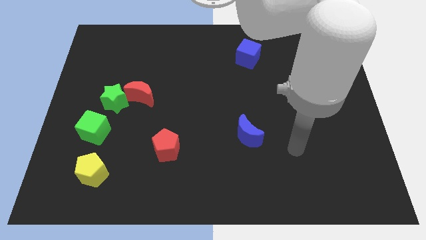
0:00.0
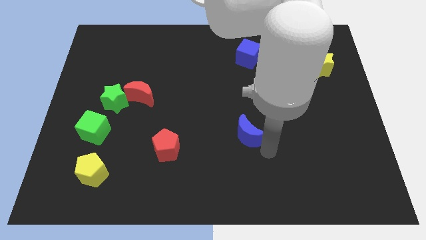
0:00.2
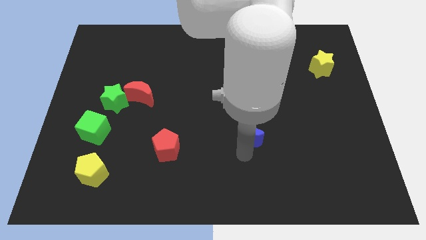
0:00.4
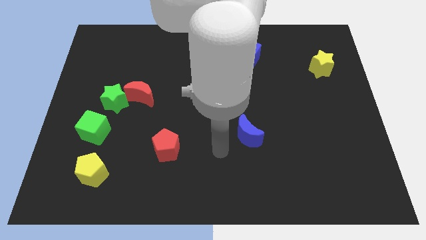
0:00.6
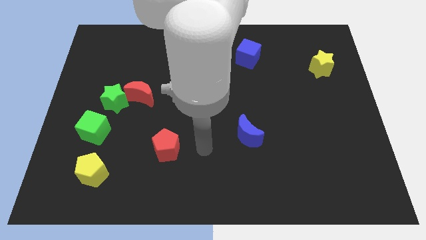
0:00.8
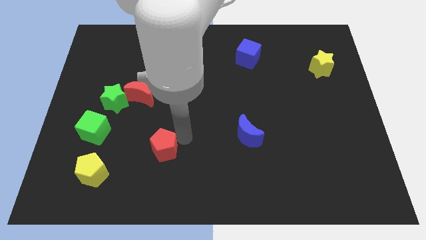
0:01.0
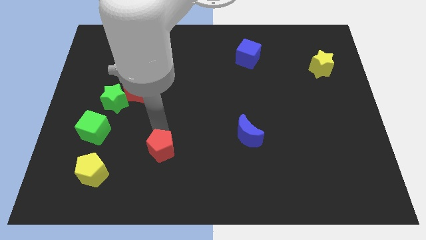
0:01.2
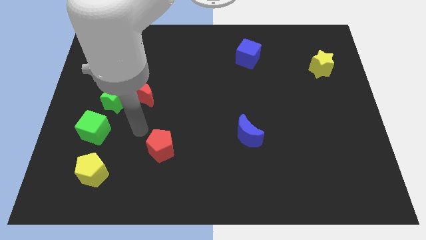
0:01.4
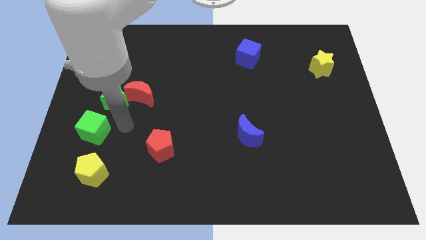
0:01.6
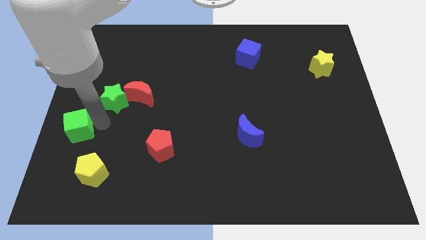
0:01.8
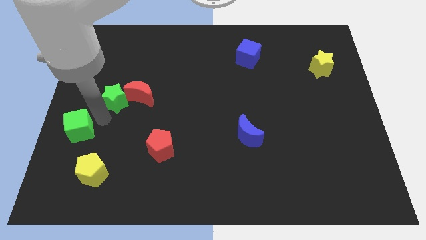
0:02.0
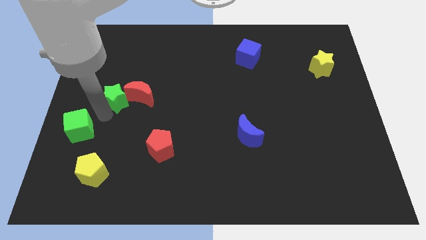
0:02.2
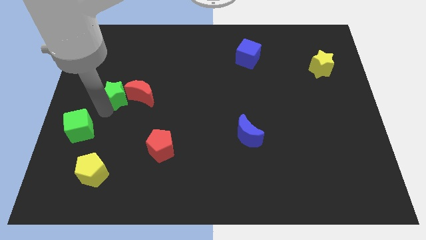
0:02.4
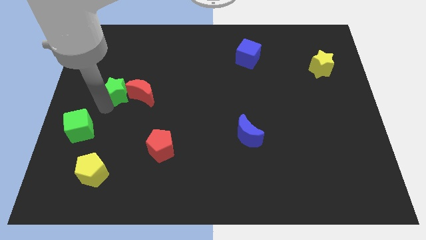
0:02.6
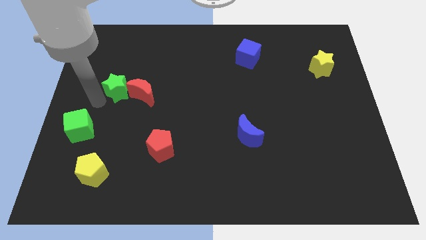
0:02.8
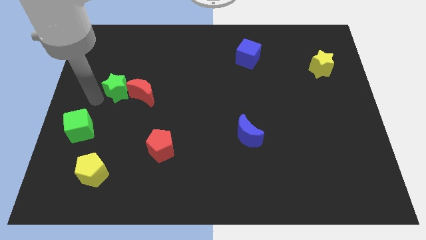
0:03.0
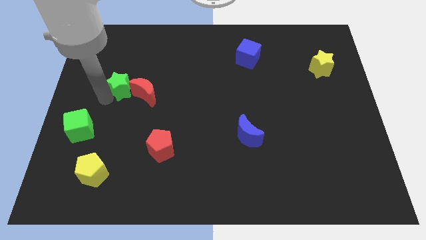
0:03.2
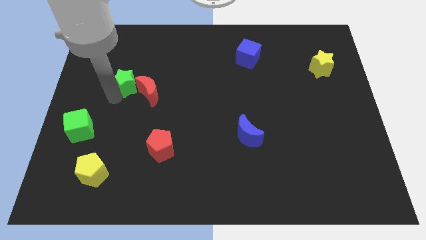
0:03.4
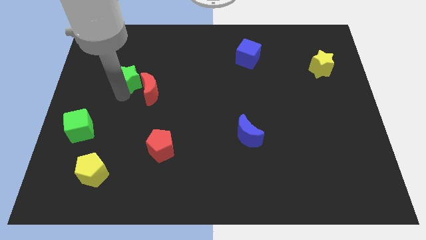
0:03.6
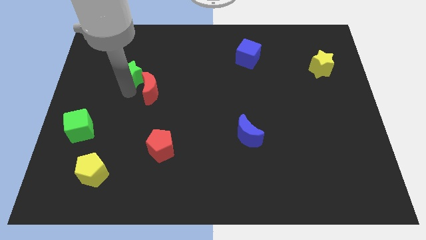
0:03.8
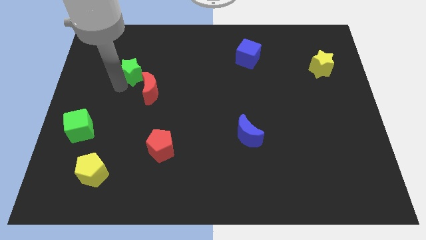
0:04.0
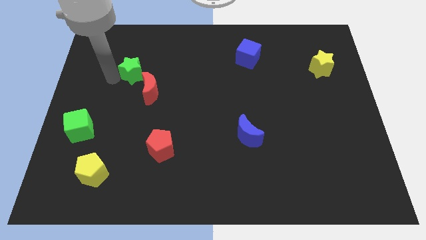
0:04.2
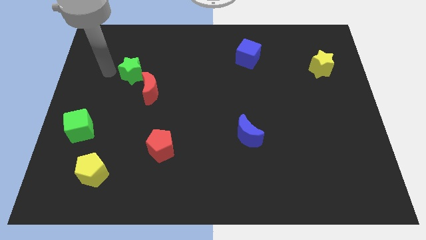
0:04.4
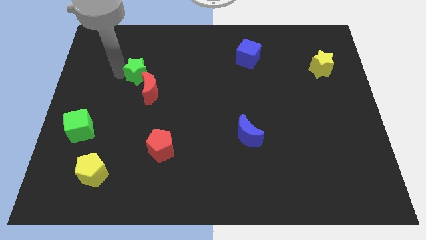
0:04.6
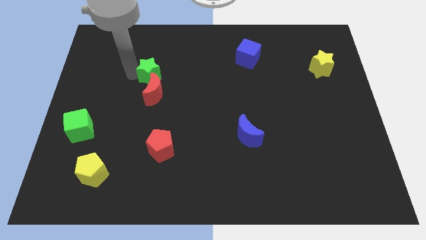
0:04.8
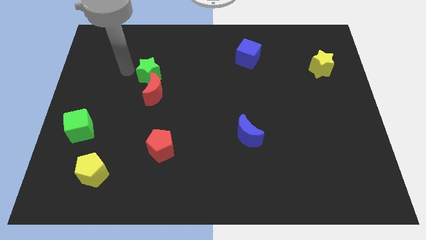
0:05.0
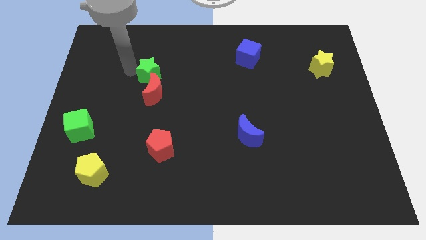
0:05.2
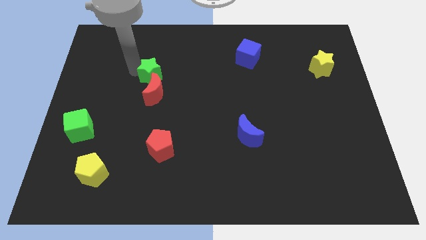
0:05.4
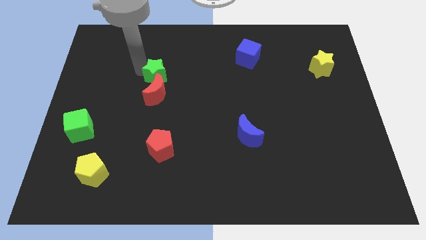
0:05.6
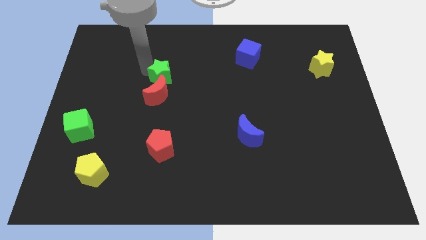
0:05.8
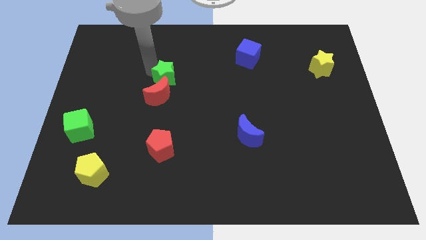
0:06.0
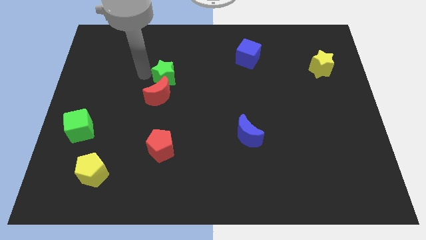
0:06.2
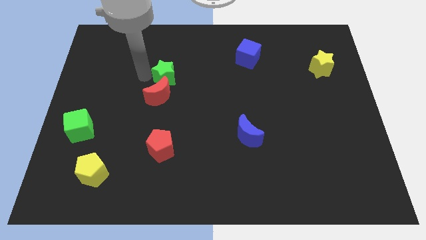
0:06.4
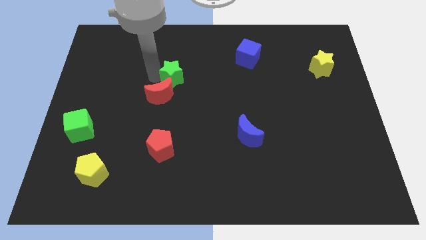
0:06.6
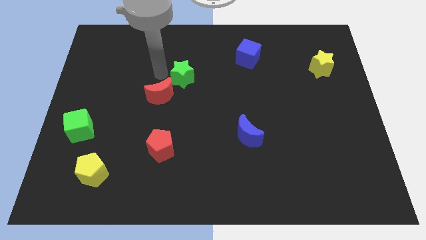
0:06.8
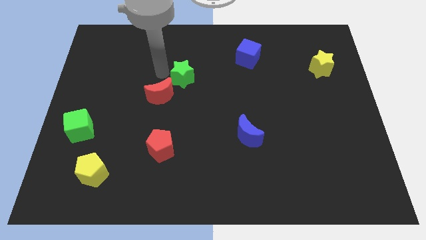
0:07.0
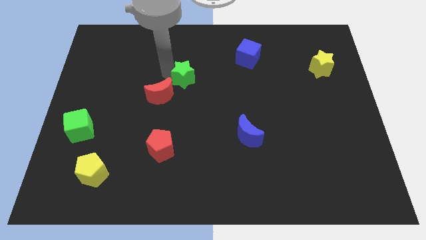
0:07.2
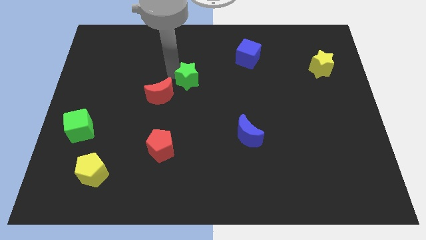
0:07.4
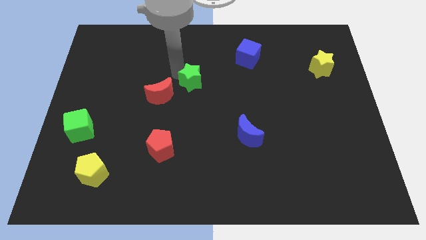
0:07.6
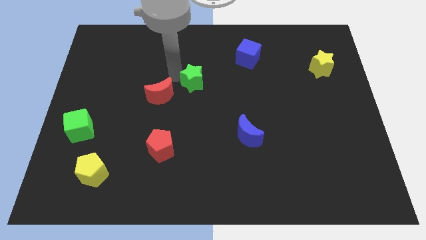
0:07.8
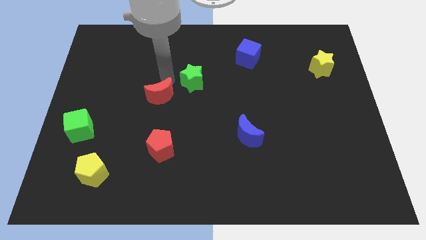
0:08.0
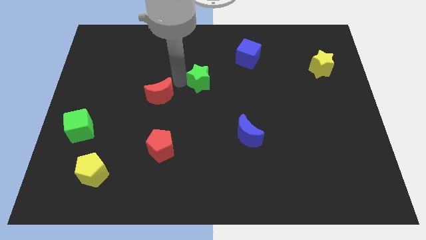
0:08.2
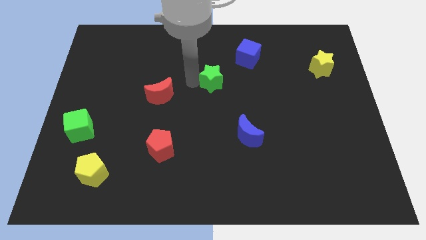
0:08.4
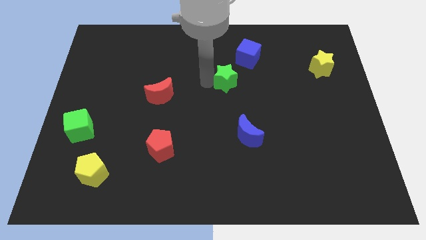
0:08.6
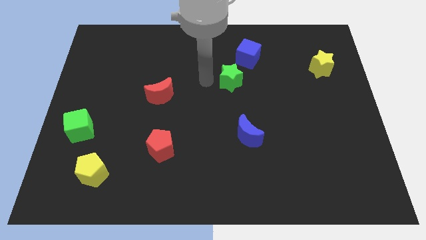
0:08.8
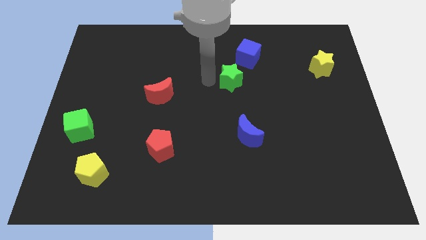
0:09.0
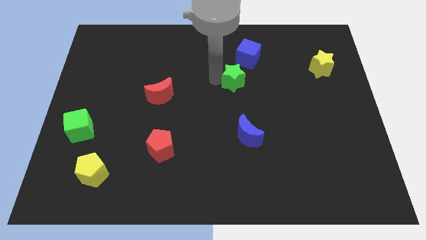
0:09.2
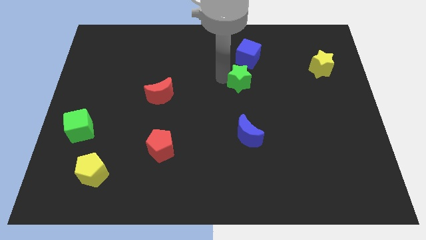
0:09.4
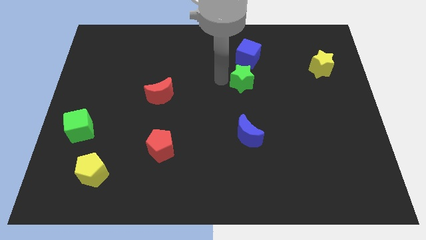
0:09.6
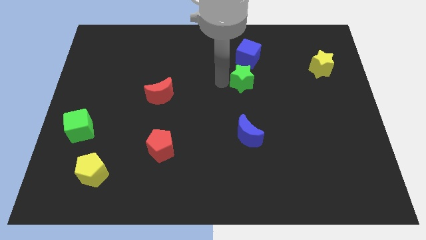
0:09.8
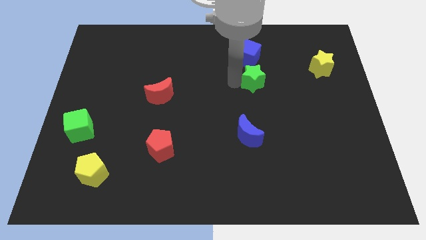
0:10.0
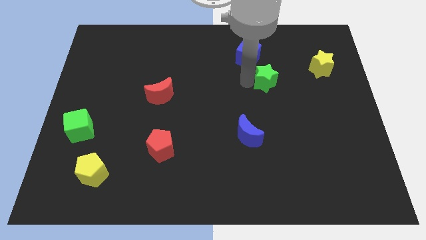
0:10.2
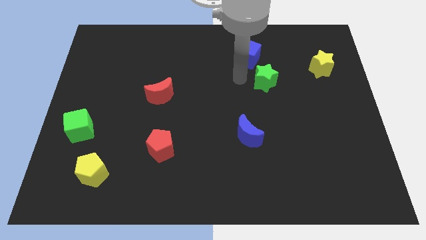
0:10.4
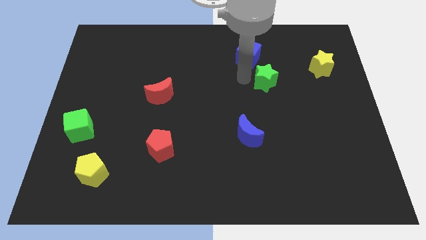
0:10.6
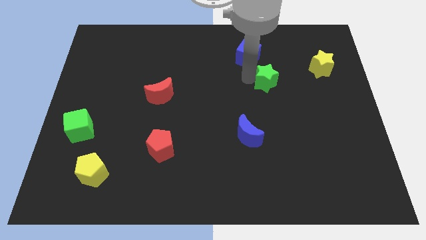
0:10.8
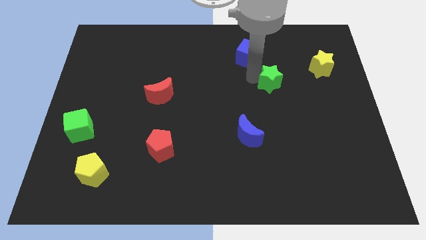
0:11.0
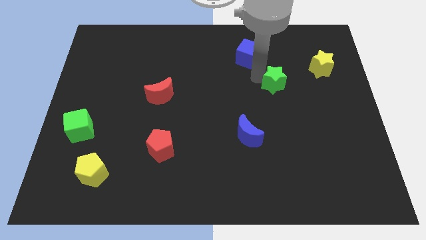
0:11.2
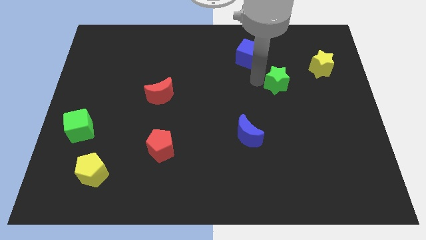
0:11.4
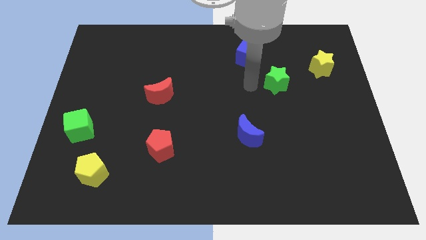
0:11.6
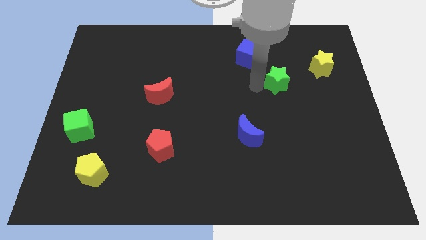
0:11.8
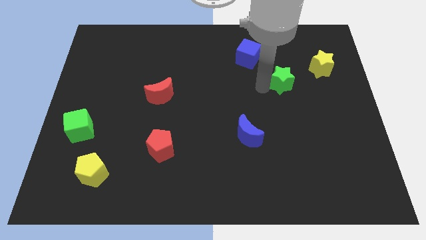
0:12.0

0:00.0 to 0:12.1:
push the green star diagonally down and to the left of the yellow star

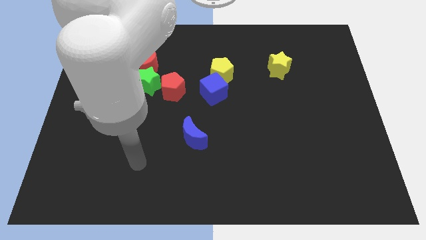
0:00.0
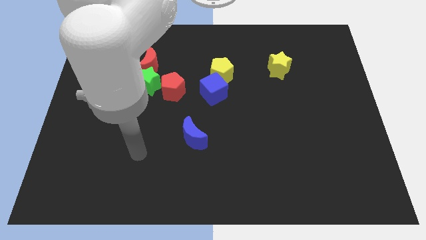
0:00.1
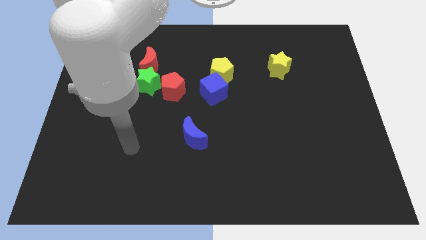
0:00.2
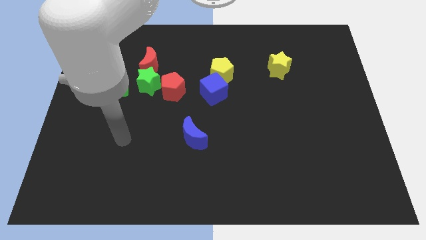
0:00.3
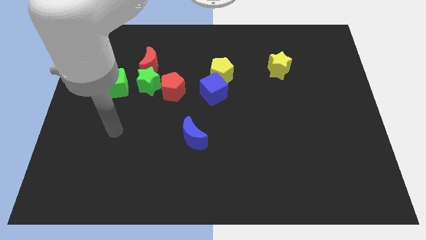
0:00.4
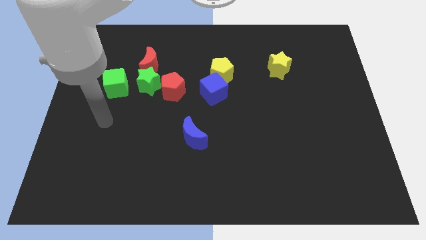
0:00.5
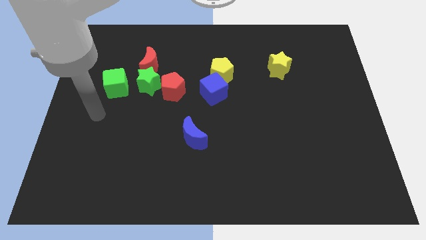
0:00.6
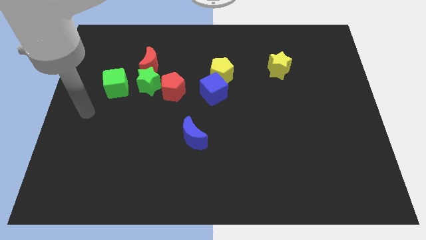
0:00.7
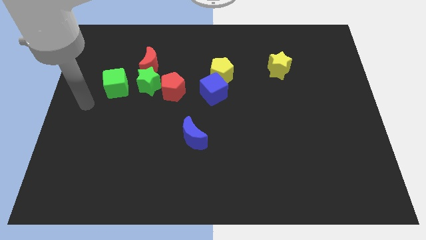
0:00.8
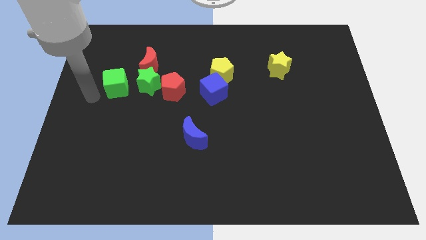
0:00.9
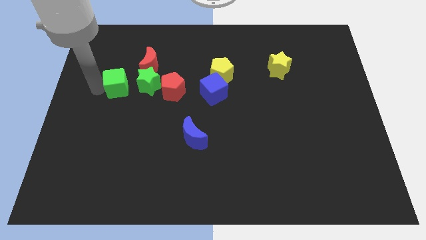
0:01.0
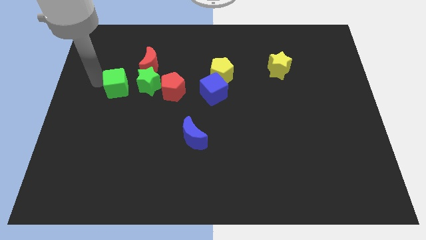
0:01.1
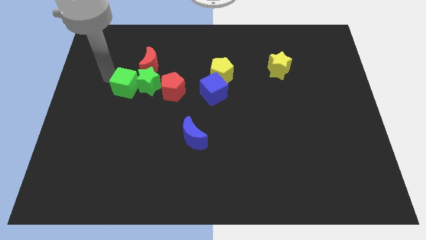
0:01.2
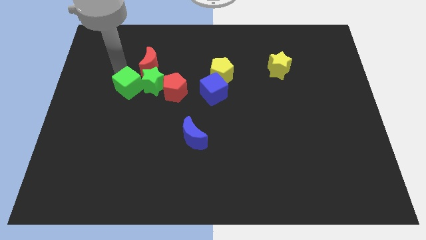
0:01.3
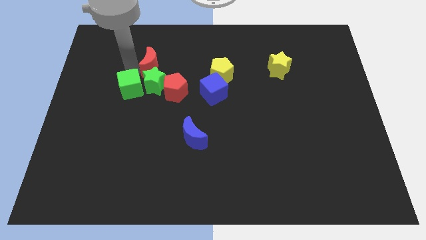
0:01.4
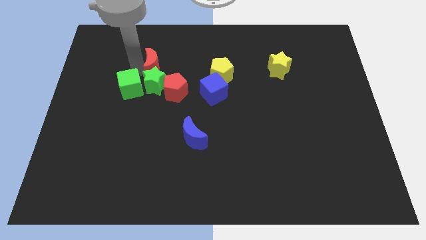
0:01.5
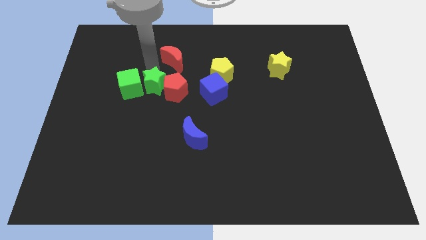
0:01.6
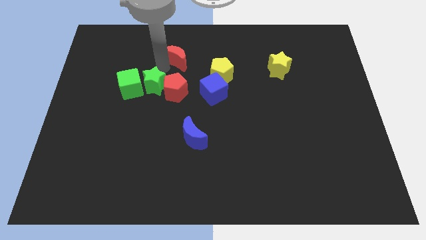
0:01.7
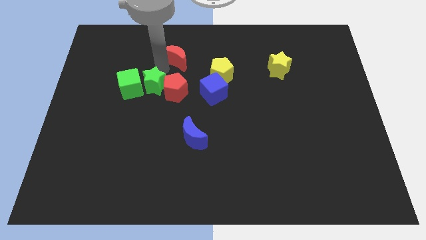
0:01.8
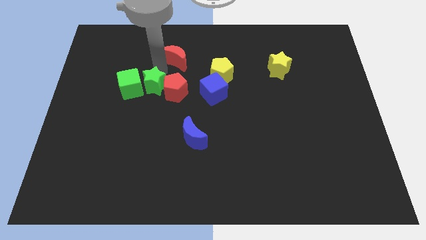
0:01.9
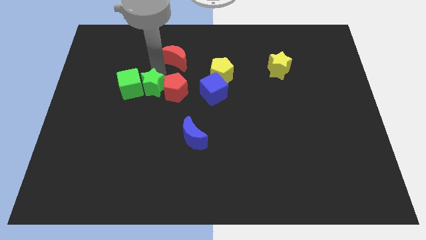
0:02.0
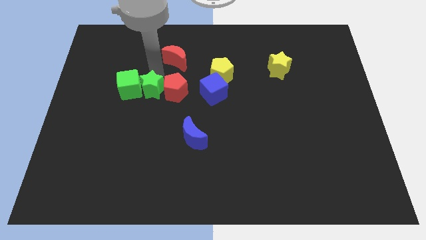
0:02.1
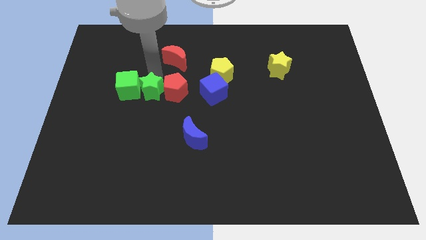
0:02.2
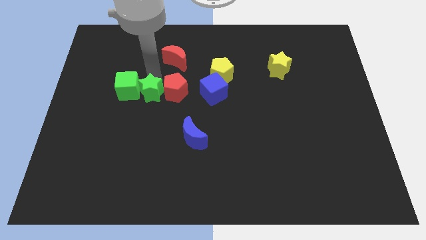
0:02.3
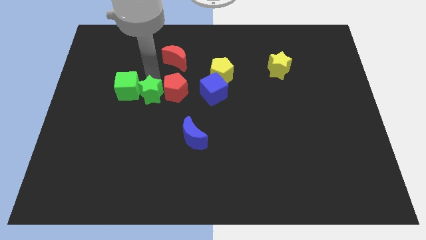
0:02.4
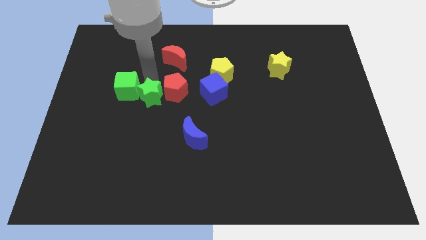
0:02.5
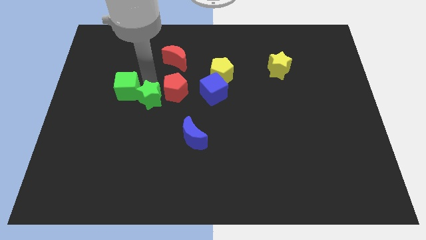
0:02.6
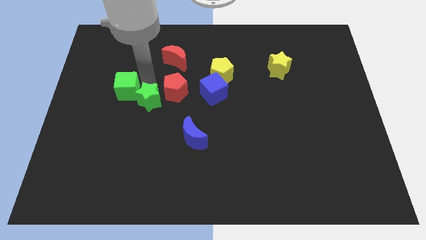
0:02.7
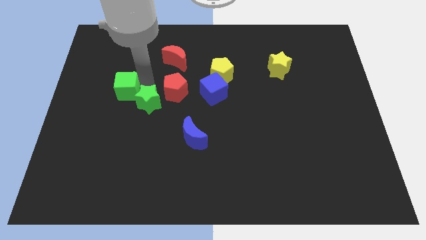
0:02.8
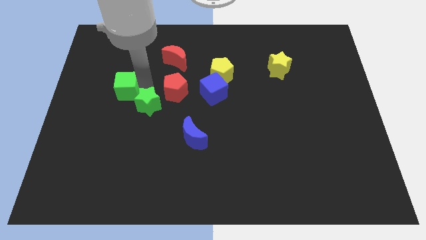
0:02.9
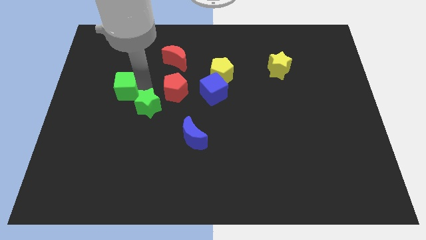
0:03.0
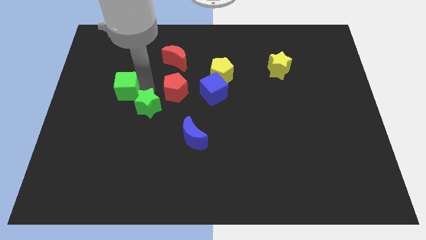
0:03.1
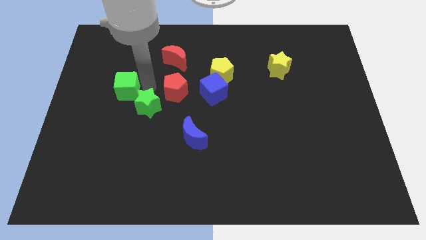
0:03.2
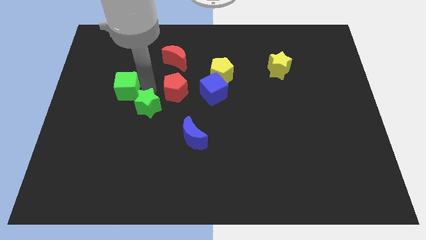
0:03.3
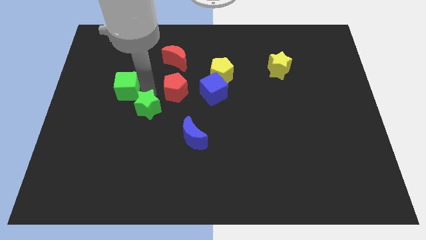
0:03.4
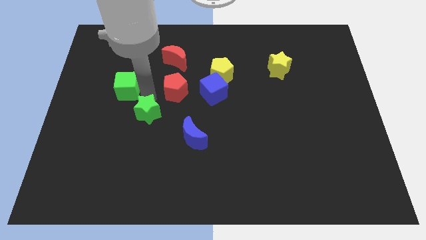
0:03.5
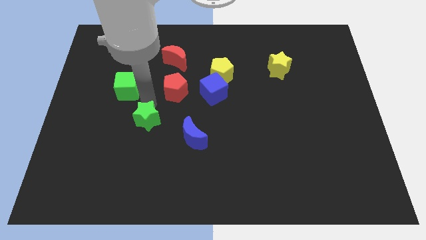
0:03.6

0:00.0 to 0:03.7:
move the green star to the left of the blue moon
